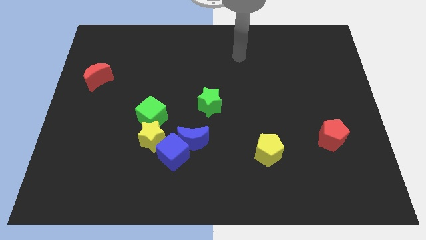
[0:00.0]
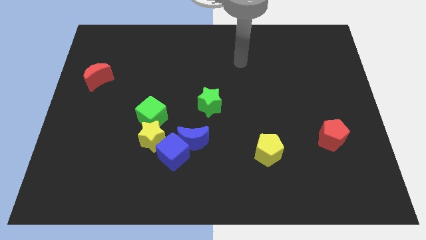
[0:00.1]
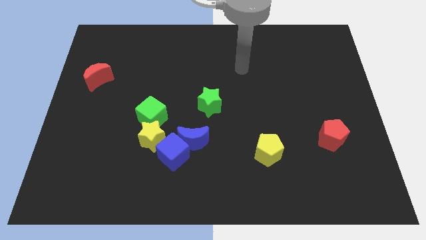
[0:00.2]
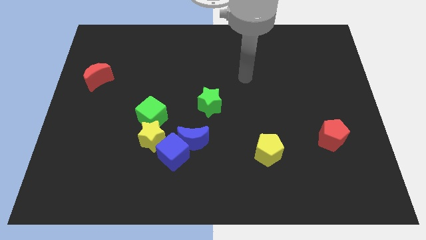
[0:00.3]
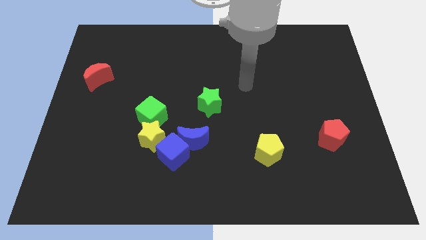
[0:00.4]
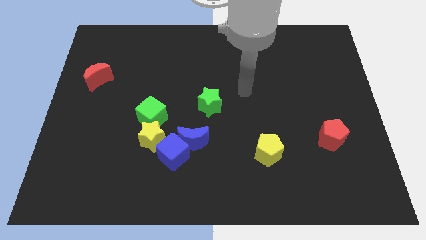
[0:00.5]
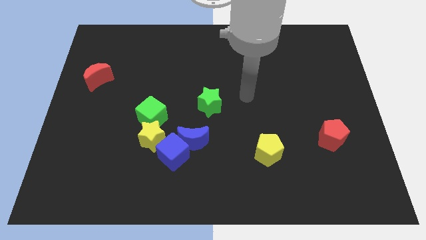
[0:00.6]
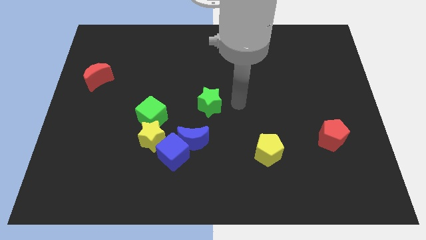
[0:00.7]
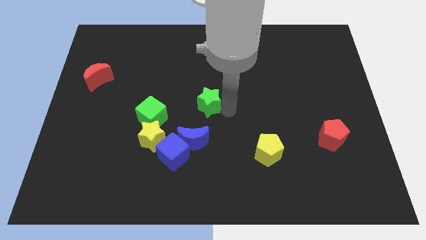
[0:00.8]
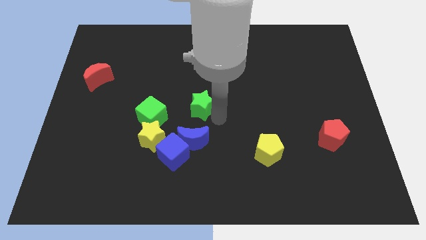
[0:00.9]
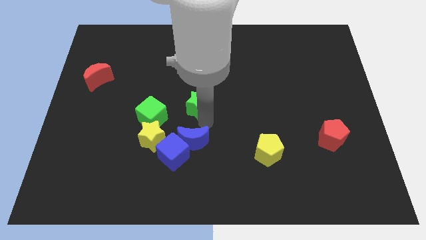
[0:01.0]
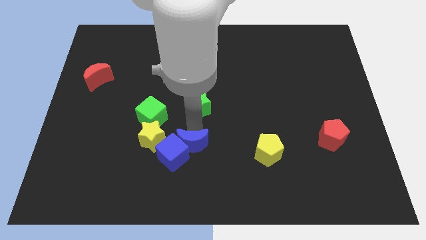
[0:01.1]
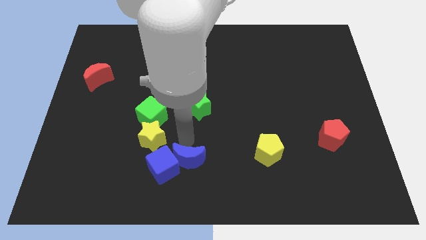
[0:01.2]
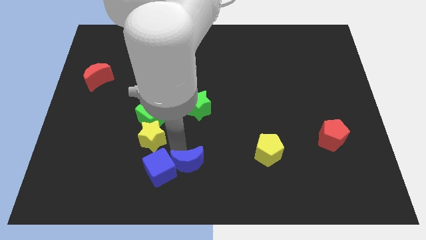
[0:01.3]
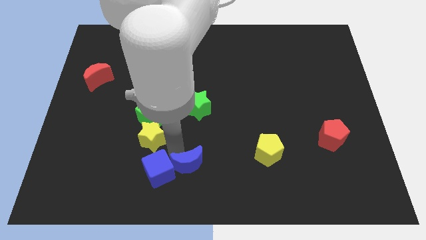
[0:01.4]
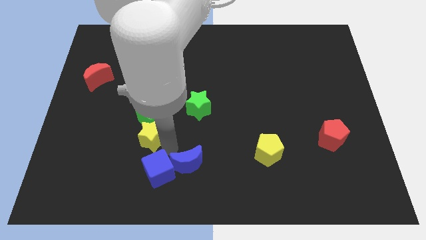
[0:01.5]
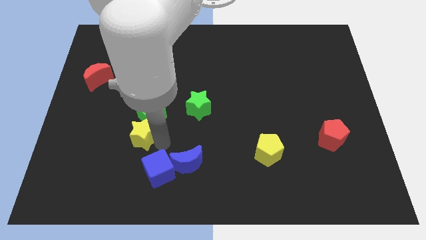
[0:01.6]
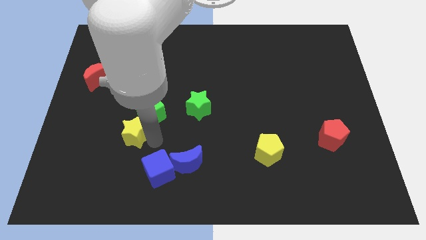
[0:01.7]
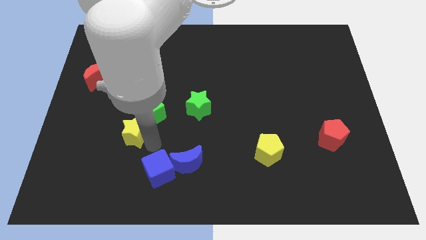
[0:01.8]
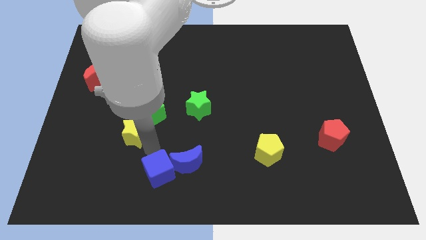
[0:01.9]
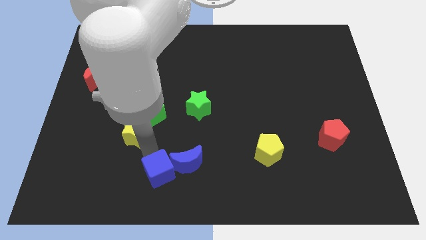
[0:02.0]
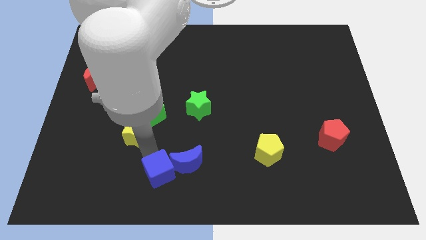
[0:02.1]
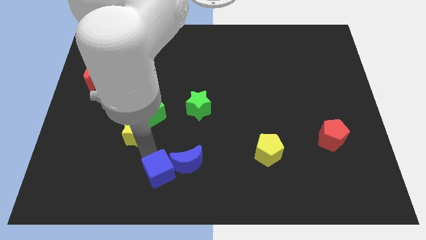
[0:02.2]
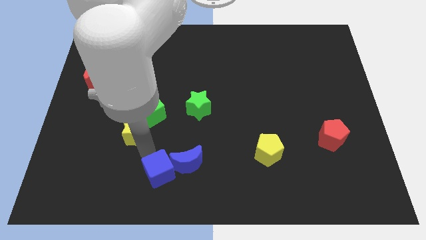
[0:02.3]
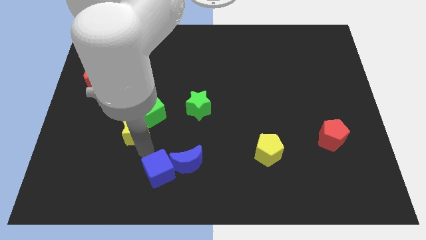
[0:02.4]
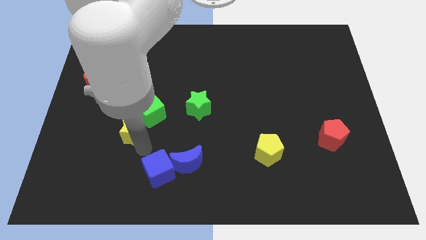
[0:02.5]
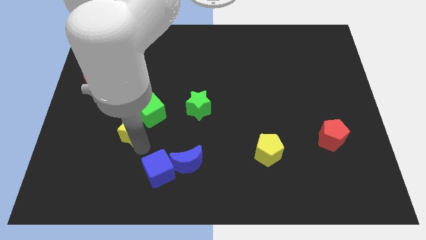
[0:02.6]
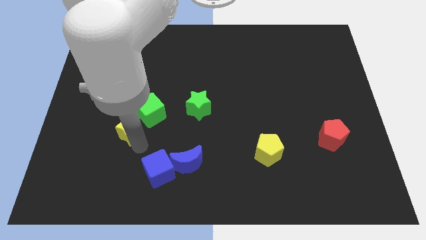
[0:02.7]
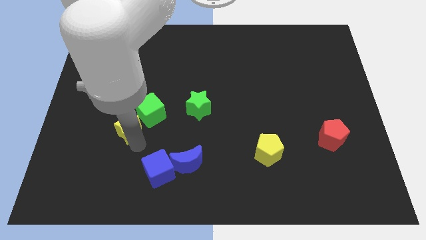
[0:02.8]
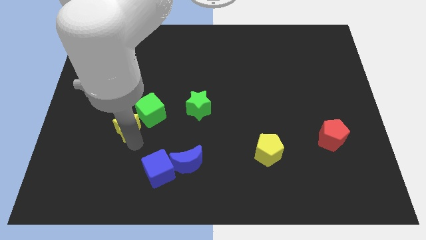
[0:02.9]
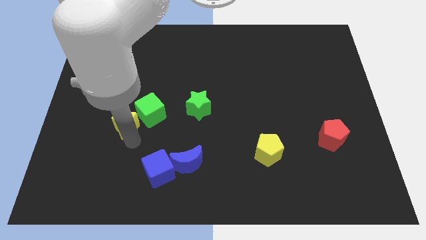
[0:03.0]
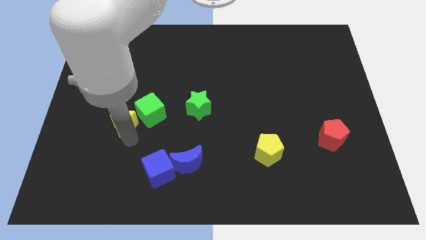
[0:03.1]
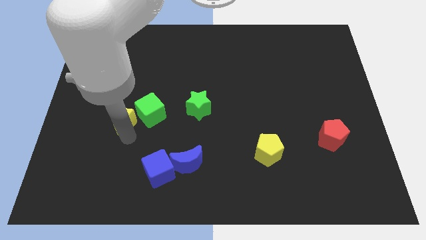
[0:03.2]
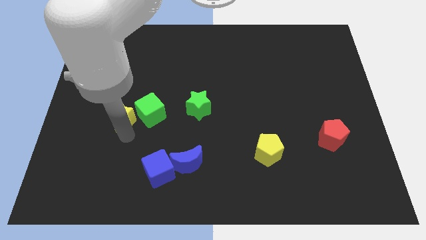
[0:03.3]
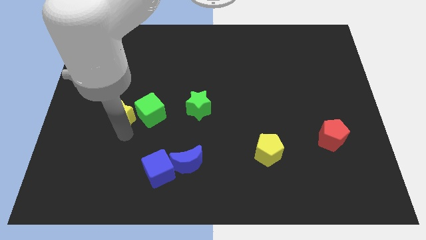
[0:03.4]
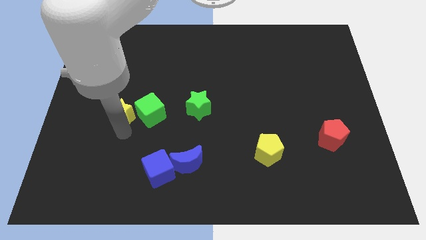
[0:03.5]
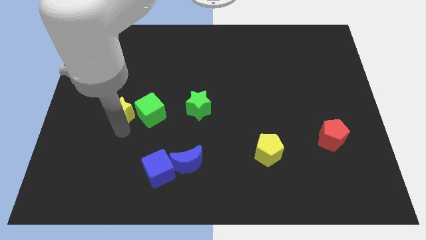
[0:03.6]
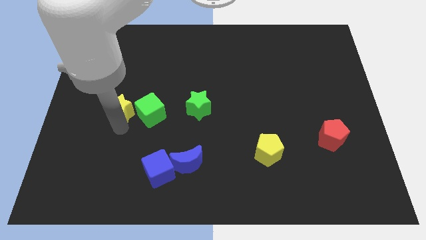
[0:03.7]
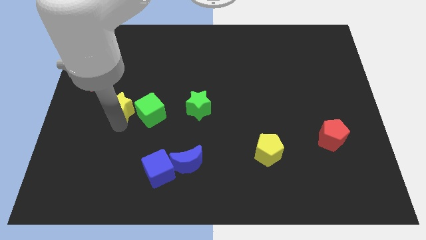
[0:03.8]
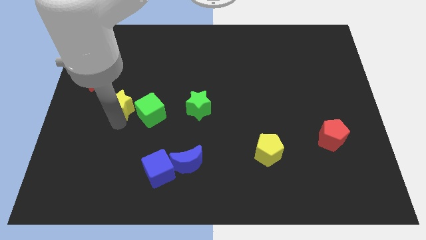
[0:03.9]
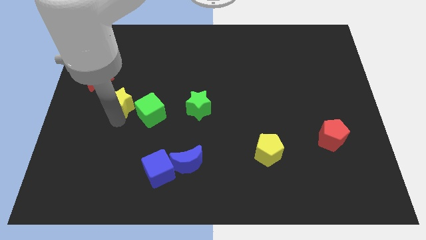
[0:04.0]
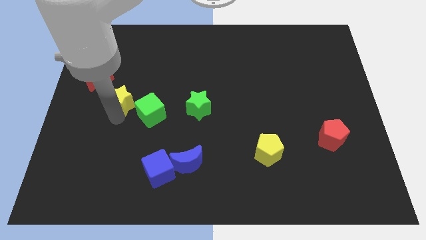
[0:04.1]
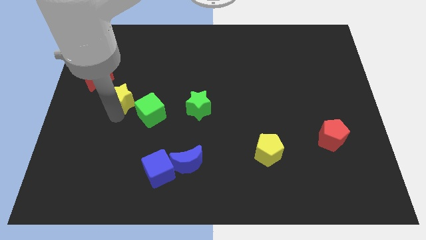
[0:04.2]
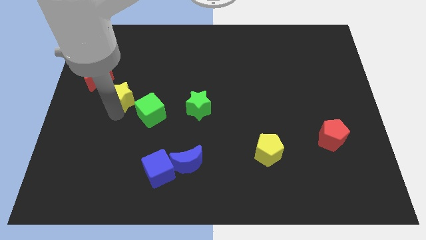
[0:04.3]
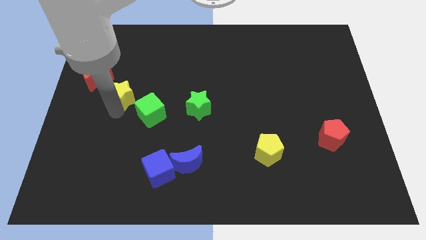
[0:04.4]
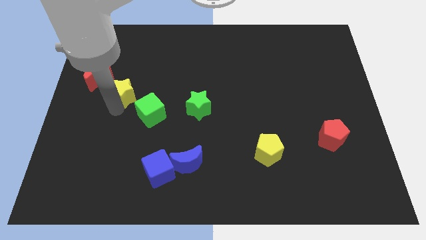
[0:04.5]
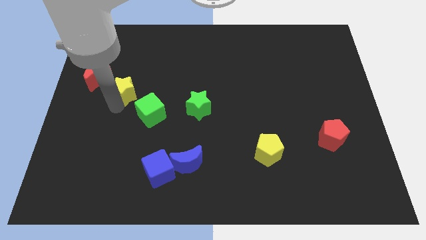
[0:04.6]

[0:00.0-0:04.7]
slide the yellow star to the right of the red moon

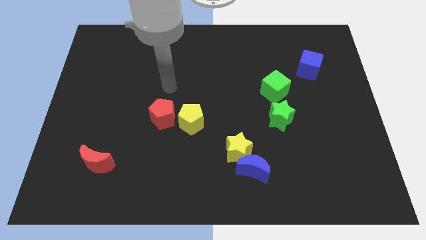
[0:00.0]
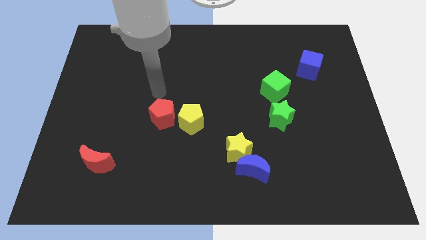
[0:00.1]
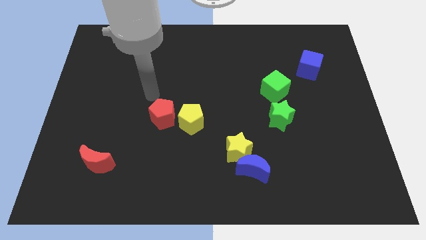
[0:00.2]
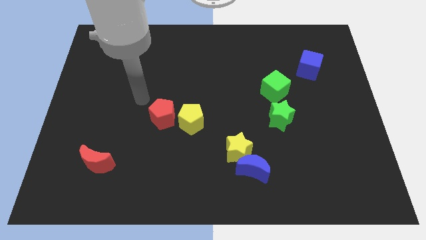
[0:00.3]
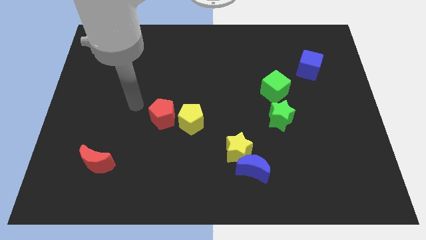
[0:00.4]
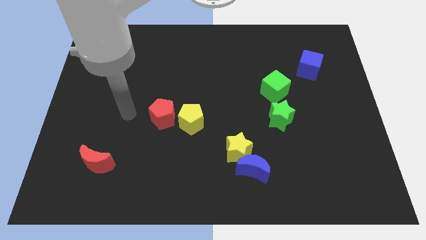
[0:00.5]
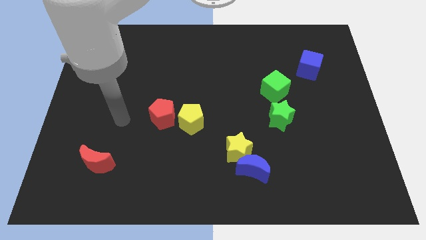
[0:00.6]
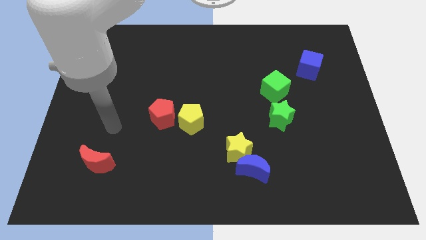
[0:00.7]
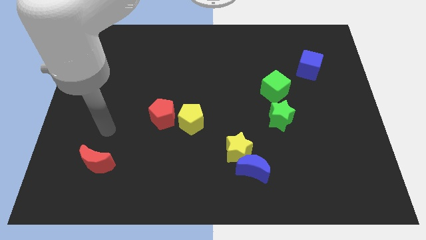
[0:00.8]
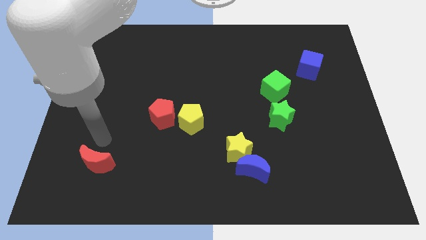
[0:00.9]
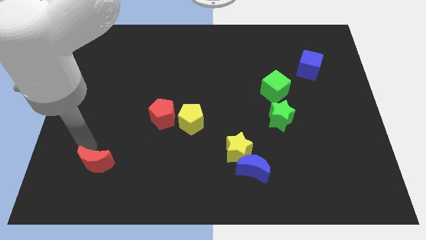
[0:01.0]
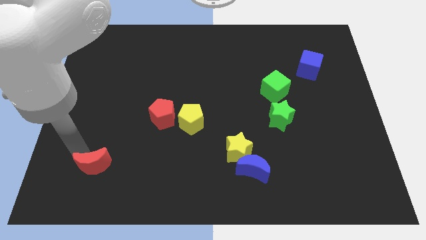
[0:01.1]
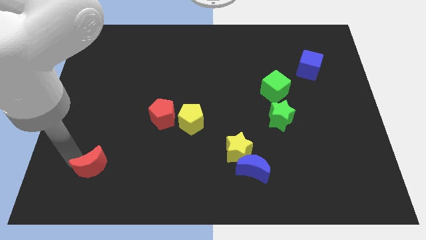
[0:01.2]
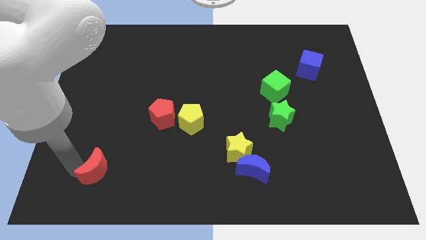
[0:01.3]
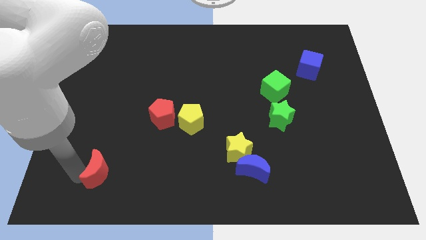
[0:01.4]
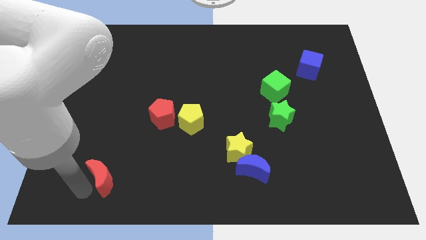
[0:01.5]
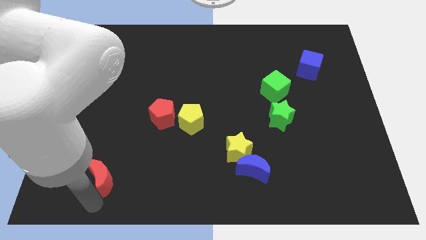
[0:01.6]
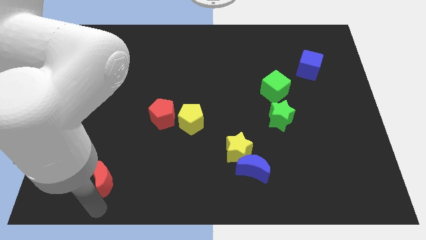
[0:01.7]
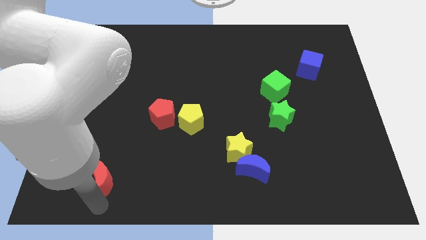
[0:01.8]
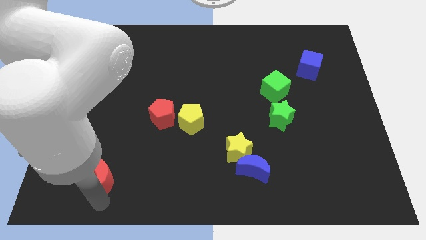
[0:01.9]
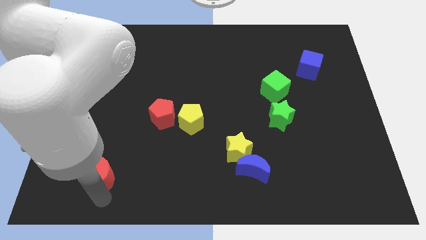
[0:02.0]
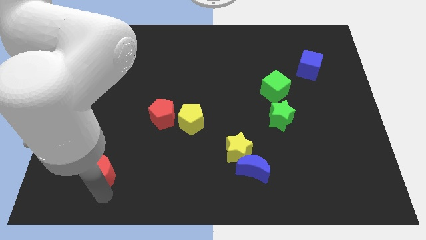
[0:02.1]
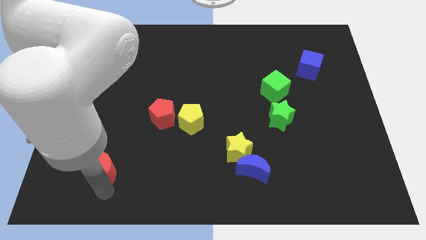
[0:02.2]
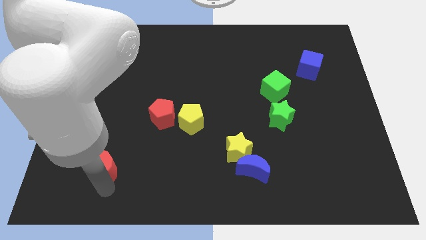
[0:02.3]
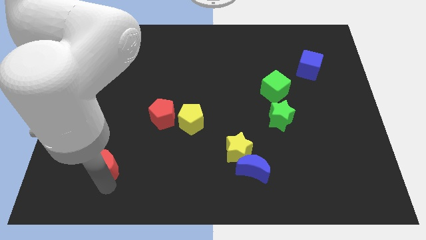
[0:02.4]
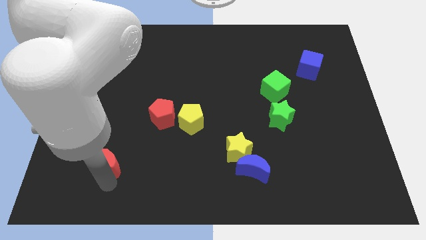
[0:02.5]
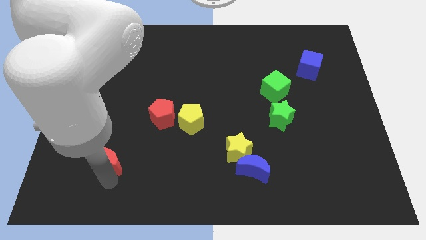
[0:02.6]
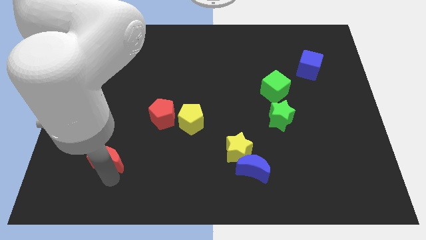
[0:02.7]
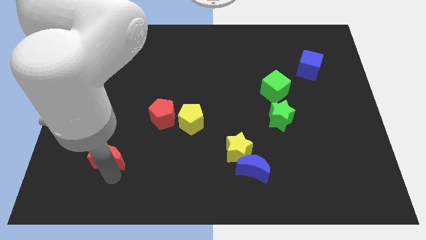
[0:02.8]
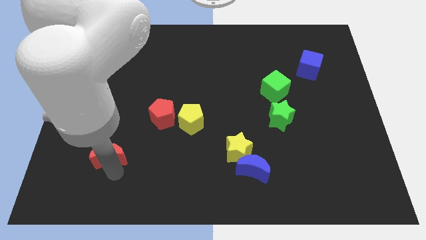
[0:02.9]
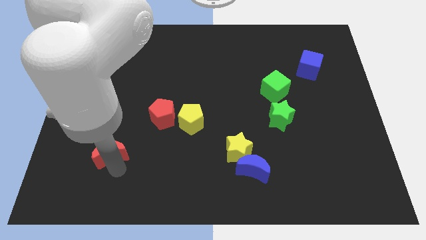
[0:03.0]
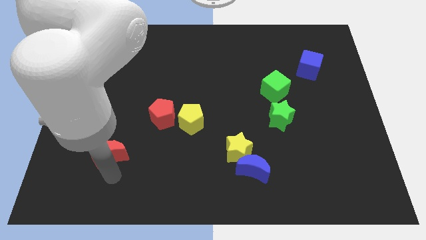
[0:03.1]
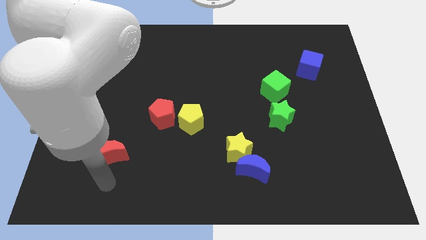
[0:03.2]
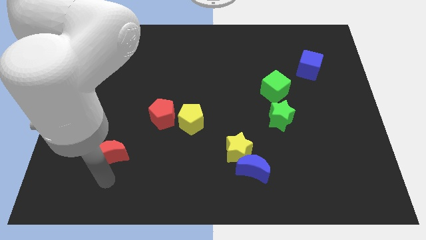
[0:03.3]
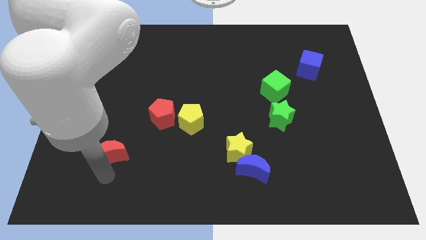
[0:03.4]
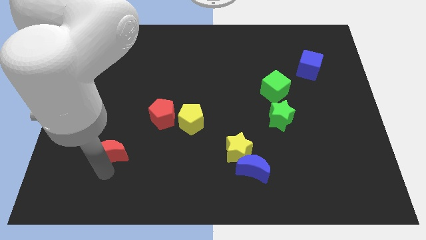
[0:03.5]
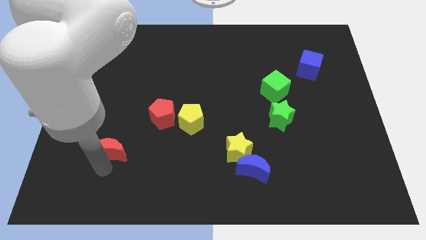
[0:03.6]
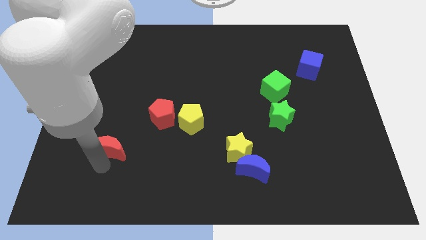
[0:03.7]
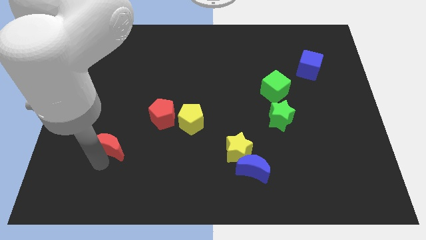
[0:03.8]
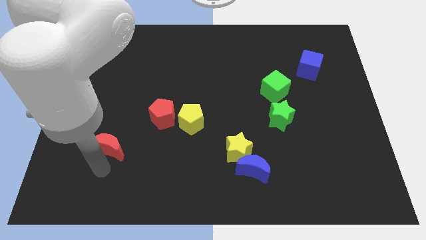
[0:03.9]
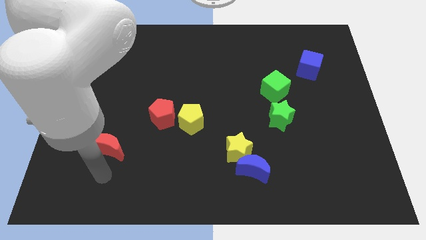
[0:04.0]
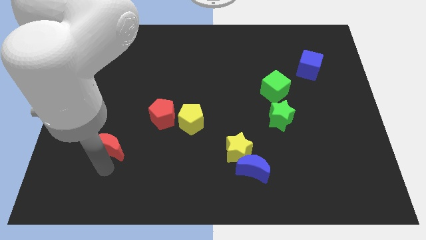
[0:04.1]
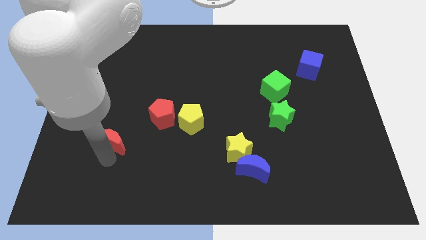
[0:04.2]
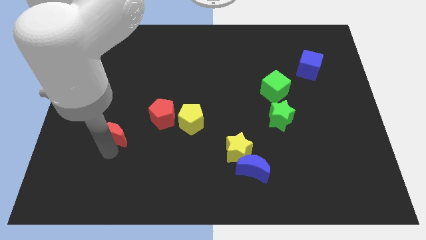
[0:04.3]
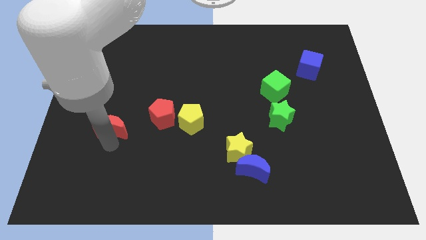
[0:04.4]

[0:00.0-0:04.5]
put the red moon to the left of the red pentagon
